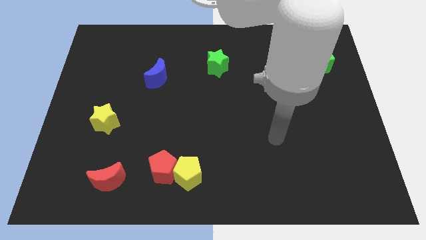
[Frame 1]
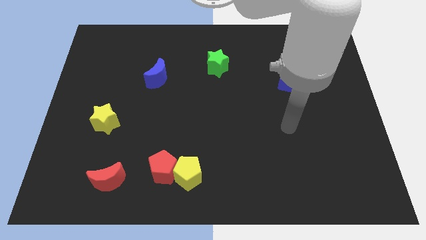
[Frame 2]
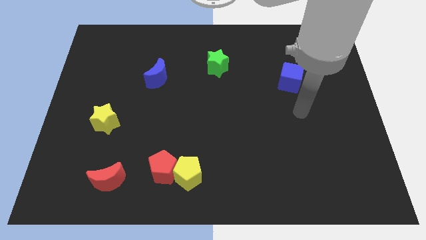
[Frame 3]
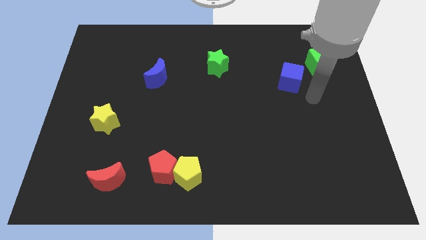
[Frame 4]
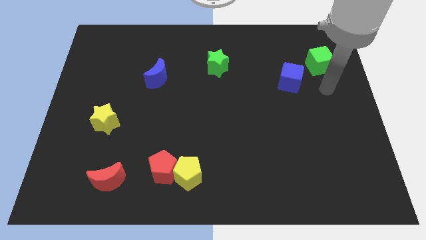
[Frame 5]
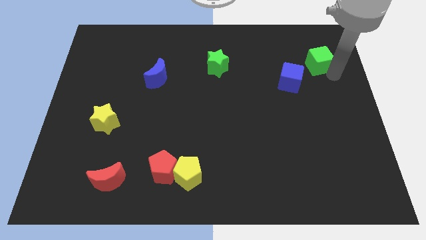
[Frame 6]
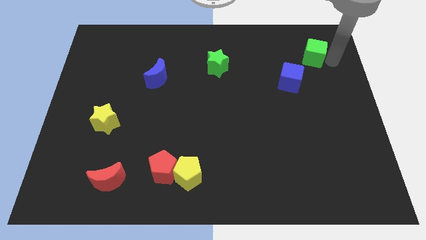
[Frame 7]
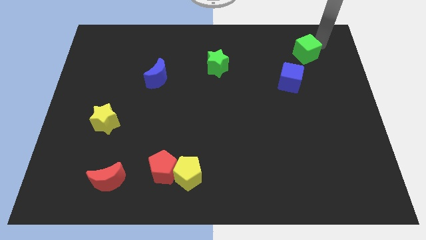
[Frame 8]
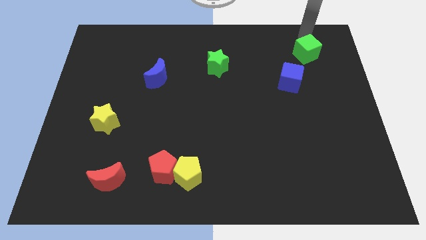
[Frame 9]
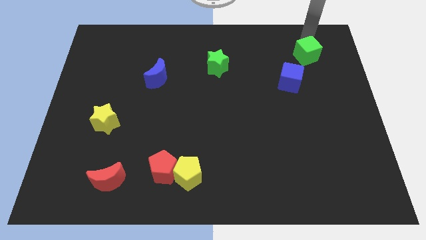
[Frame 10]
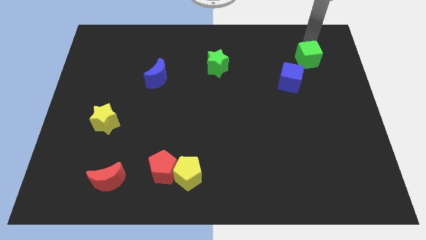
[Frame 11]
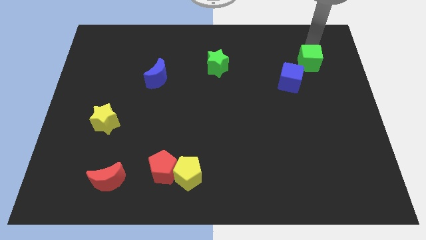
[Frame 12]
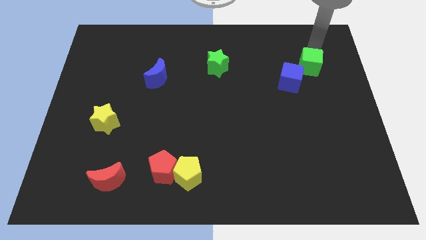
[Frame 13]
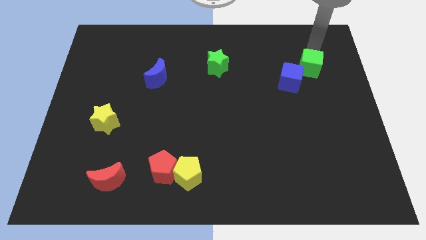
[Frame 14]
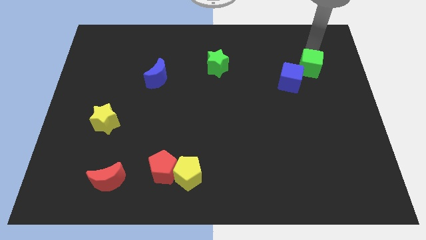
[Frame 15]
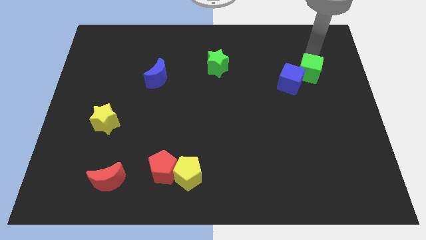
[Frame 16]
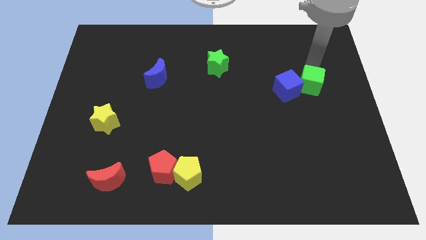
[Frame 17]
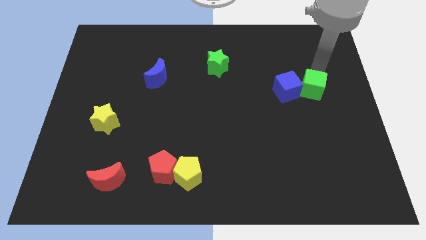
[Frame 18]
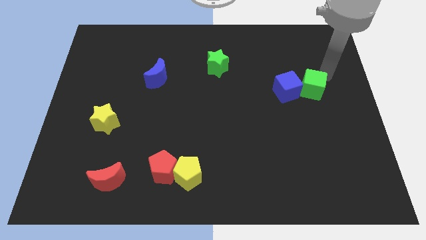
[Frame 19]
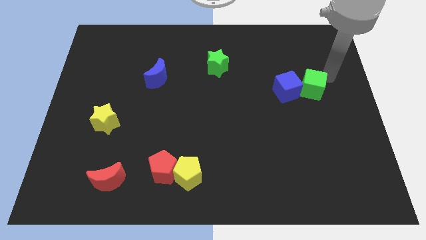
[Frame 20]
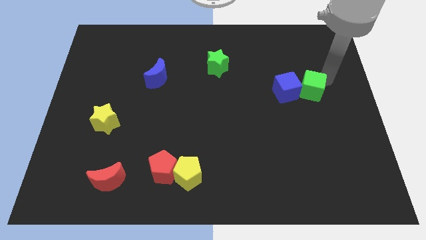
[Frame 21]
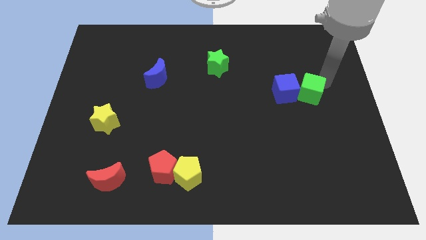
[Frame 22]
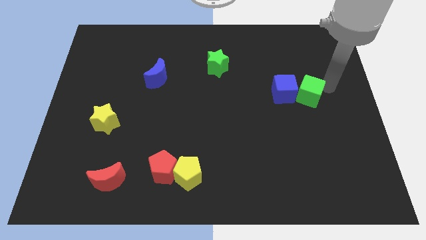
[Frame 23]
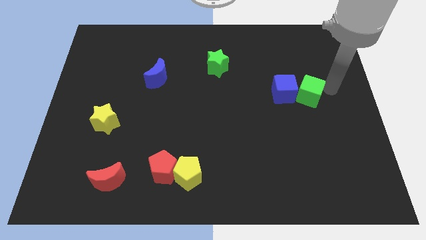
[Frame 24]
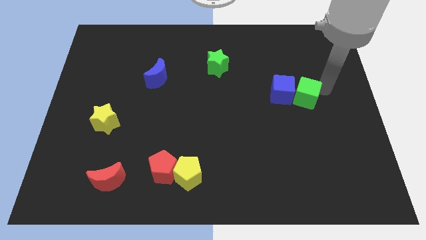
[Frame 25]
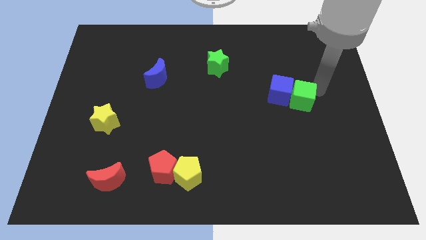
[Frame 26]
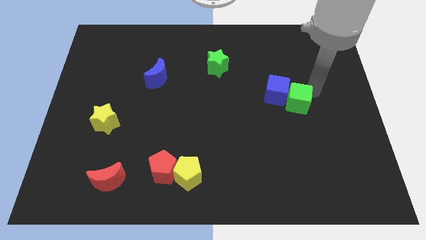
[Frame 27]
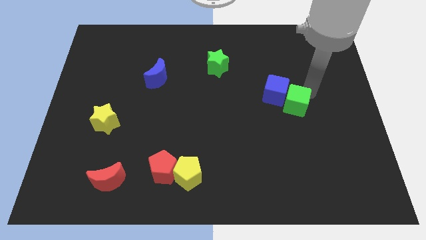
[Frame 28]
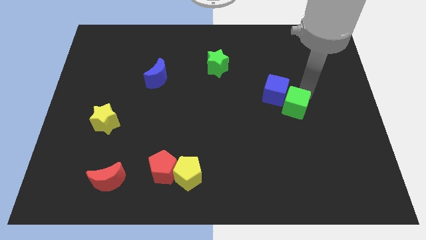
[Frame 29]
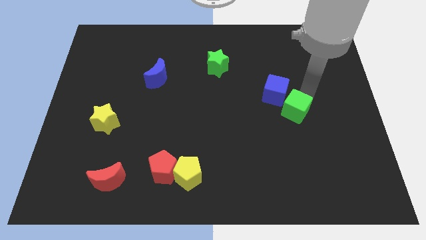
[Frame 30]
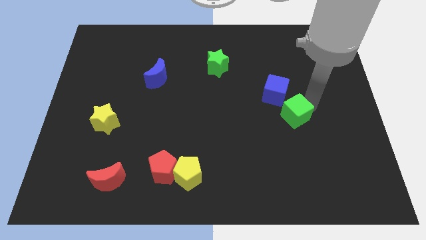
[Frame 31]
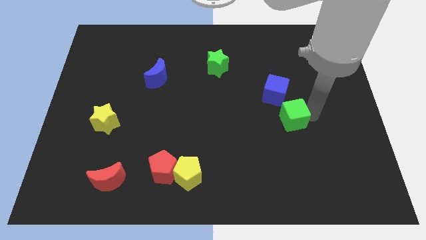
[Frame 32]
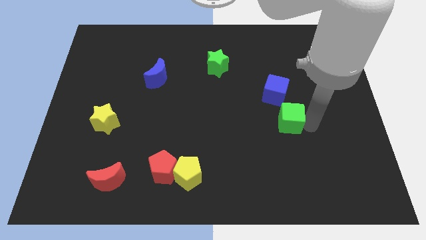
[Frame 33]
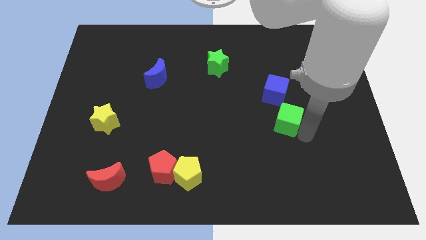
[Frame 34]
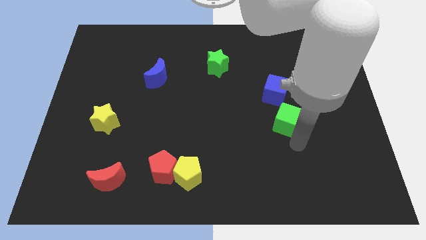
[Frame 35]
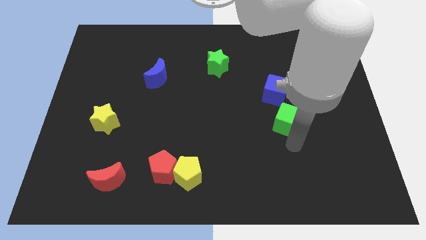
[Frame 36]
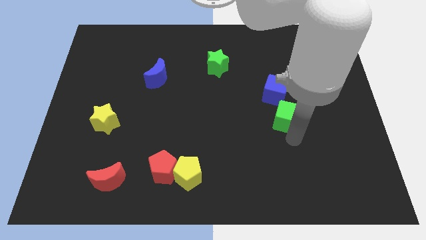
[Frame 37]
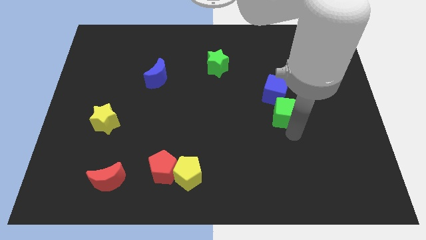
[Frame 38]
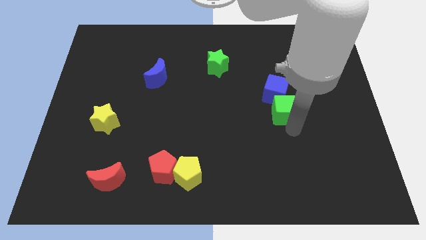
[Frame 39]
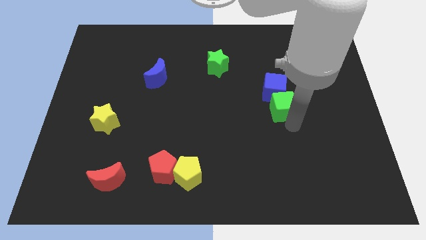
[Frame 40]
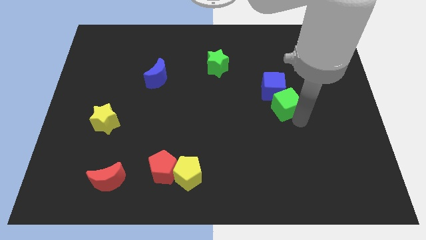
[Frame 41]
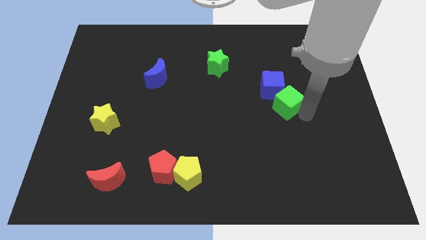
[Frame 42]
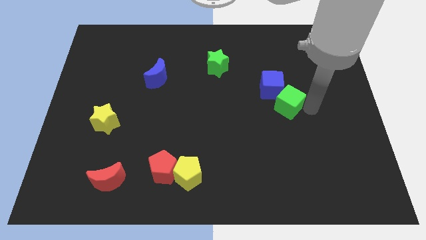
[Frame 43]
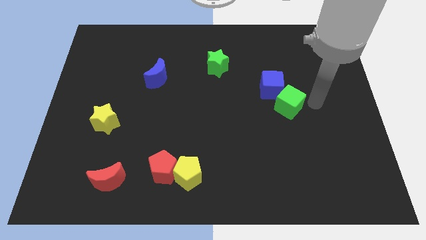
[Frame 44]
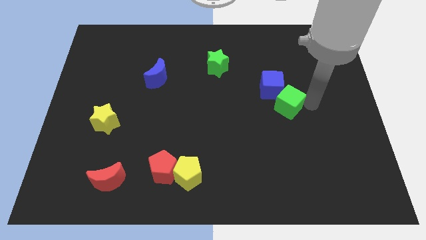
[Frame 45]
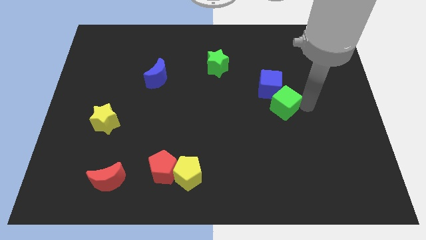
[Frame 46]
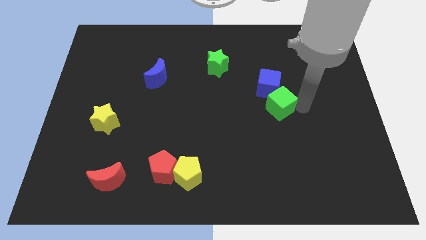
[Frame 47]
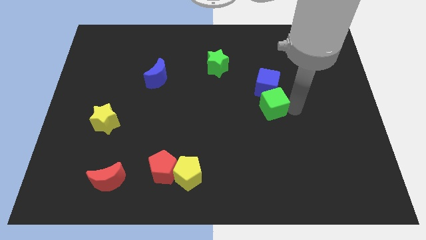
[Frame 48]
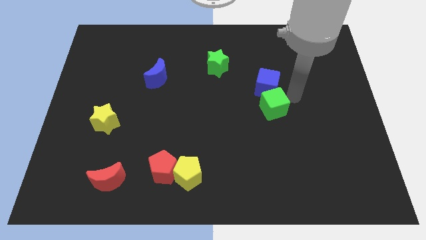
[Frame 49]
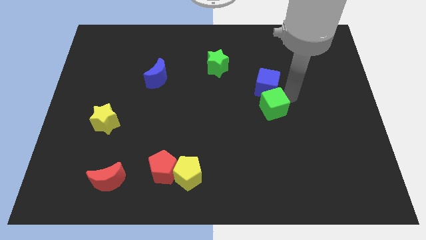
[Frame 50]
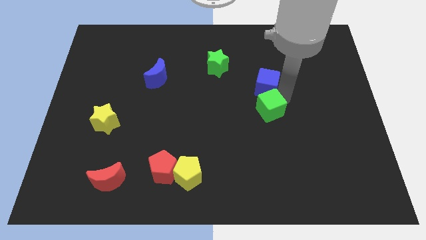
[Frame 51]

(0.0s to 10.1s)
slide the green cube downwards and left

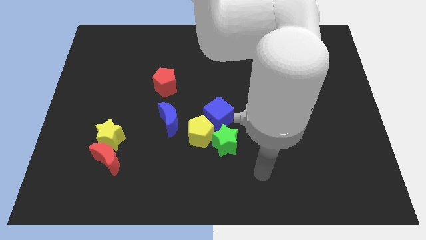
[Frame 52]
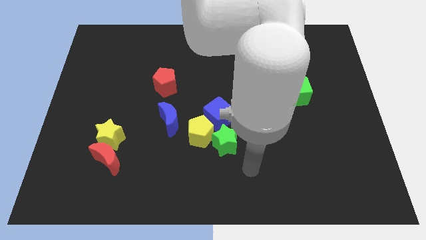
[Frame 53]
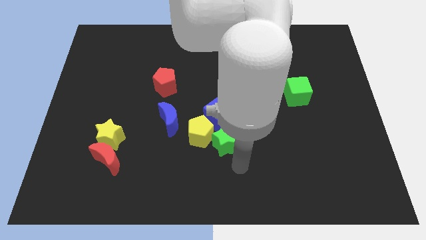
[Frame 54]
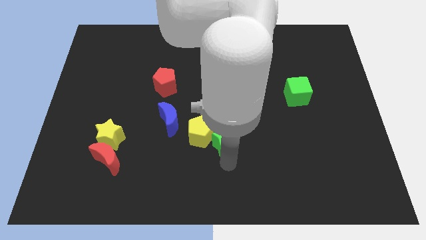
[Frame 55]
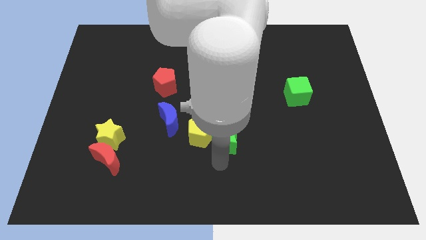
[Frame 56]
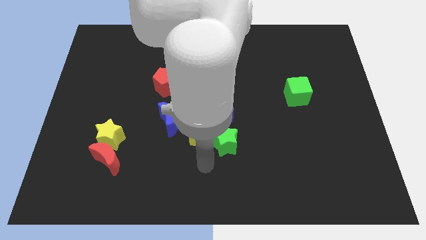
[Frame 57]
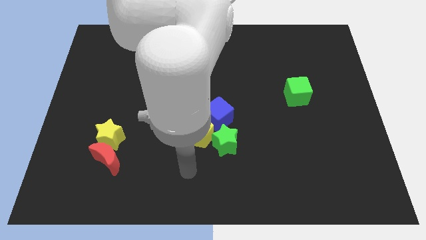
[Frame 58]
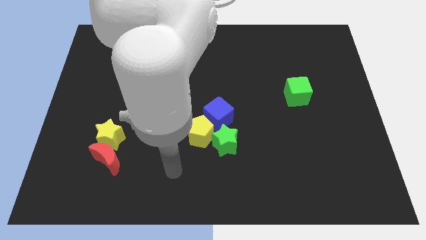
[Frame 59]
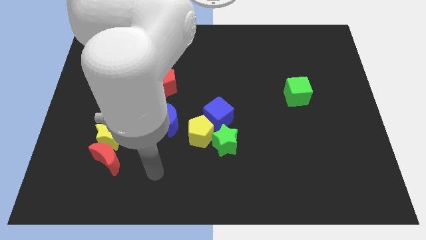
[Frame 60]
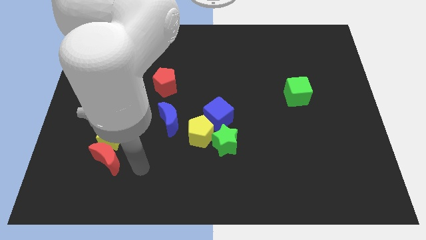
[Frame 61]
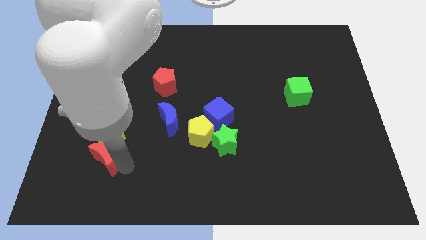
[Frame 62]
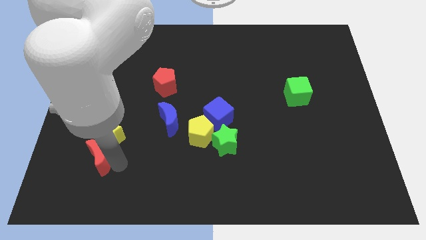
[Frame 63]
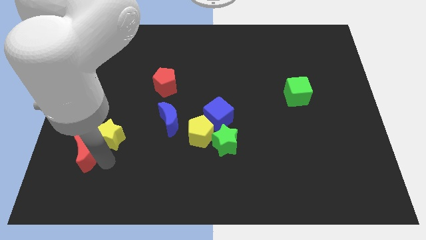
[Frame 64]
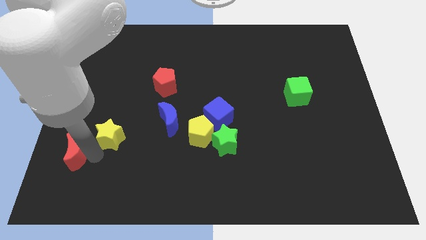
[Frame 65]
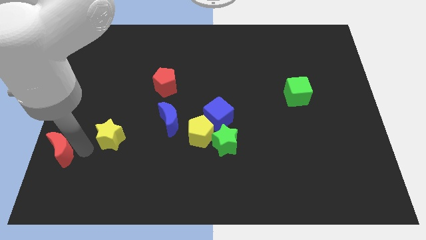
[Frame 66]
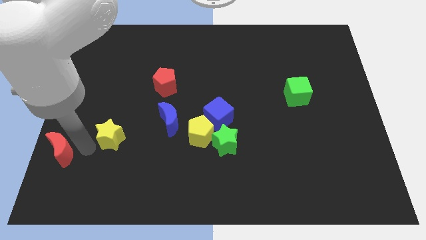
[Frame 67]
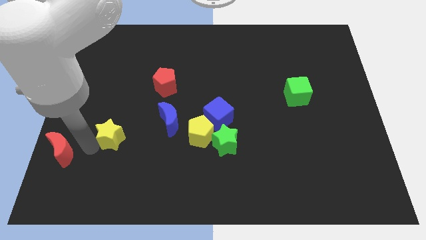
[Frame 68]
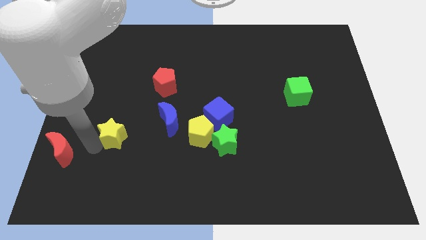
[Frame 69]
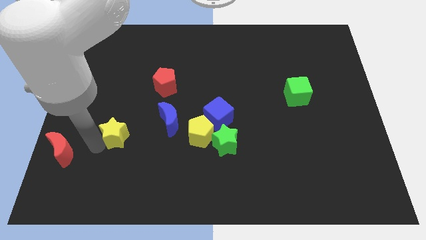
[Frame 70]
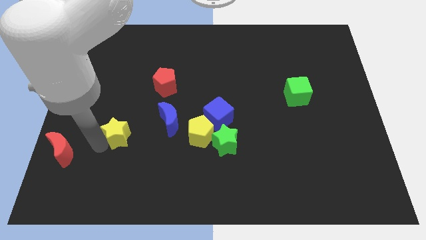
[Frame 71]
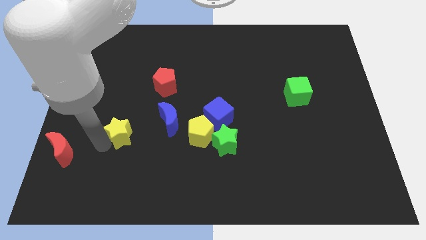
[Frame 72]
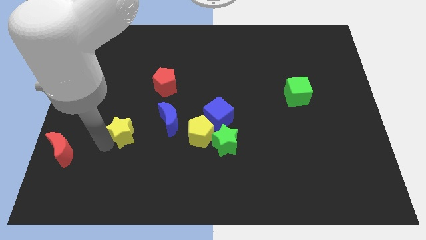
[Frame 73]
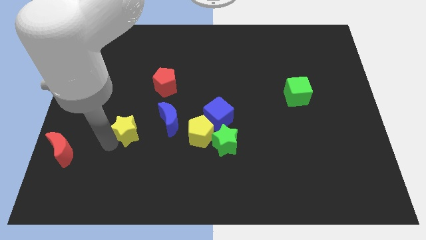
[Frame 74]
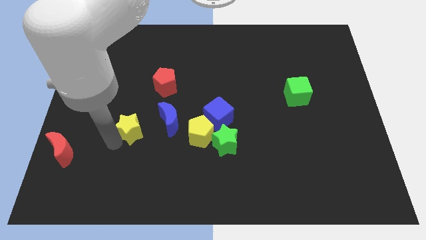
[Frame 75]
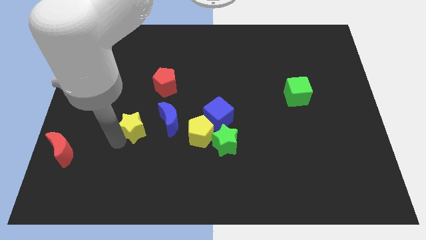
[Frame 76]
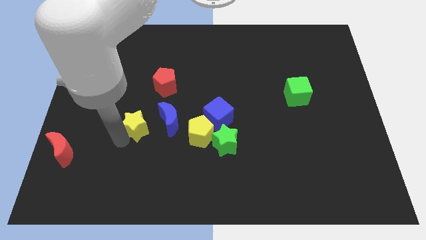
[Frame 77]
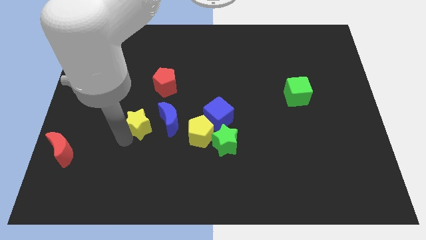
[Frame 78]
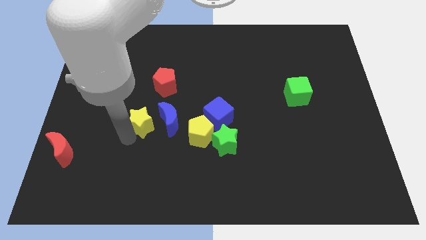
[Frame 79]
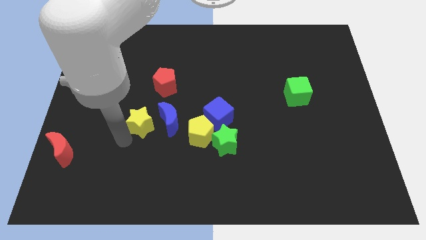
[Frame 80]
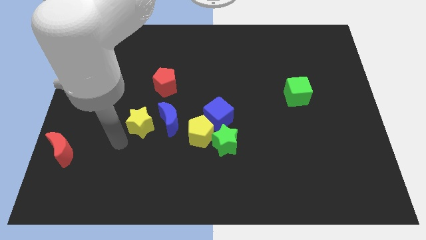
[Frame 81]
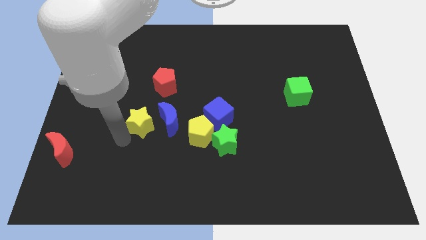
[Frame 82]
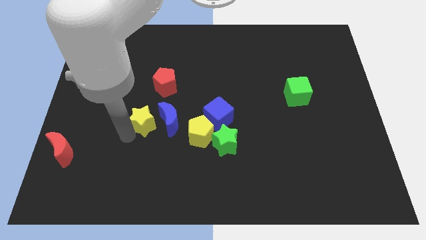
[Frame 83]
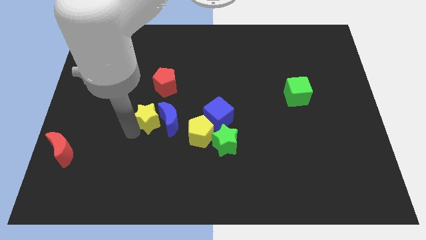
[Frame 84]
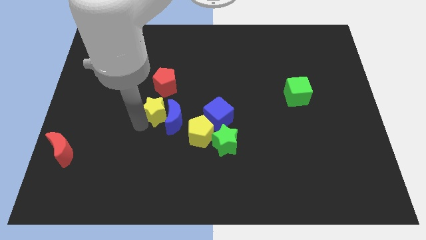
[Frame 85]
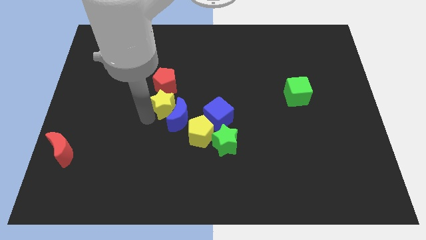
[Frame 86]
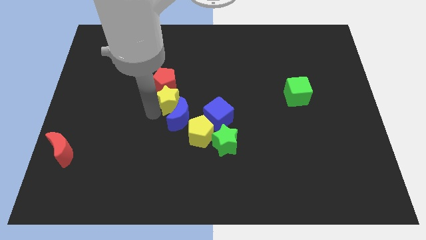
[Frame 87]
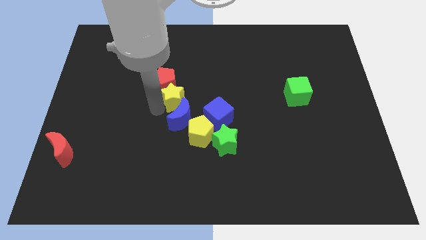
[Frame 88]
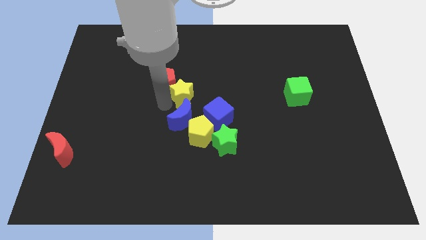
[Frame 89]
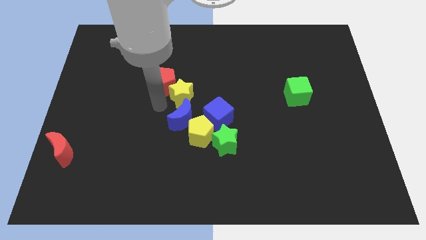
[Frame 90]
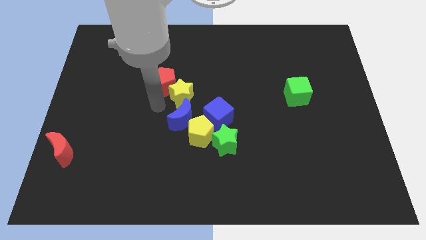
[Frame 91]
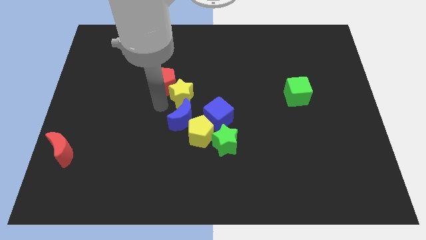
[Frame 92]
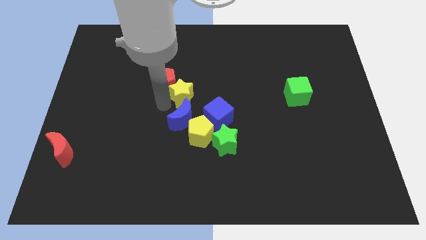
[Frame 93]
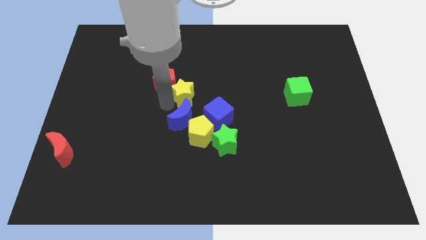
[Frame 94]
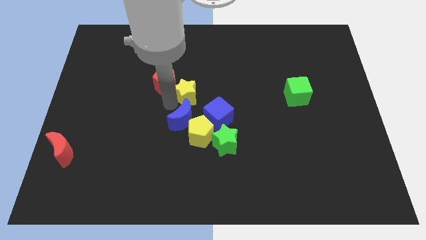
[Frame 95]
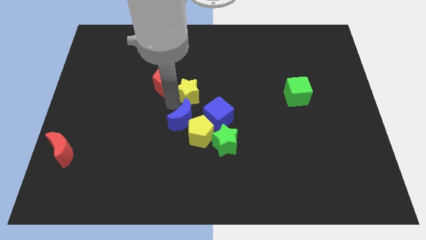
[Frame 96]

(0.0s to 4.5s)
move the yellow star up and right
